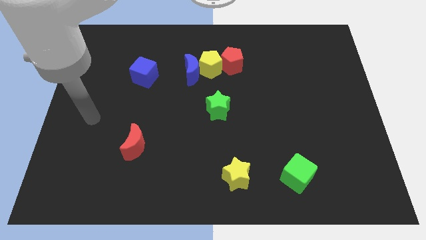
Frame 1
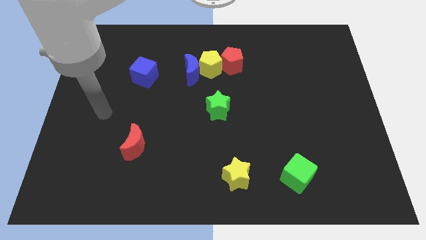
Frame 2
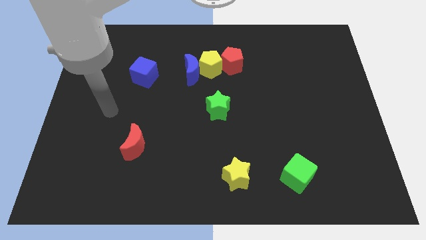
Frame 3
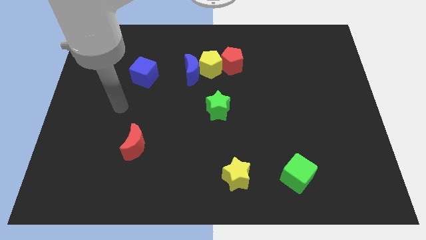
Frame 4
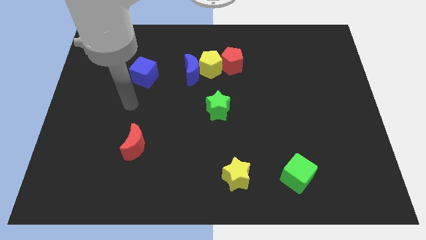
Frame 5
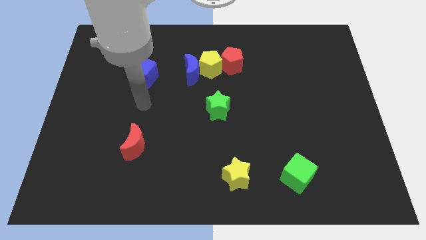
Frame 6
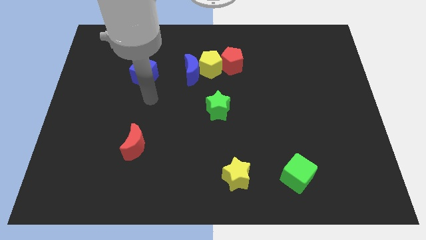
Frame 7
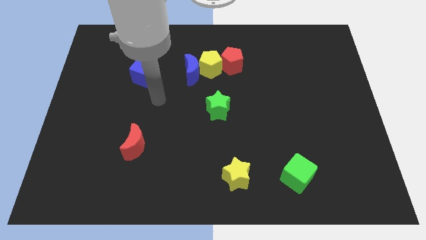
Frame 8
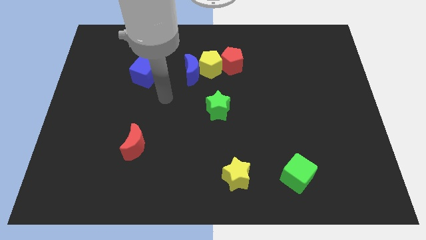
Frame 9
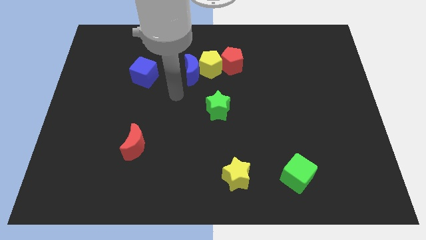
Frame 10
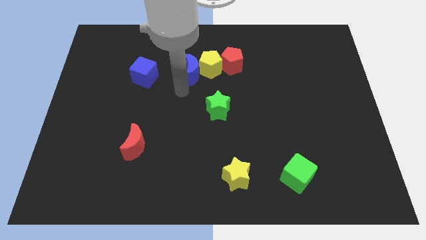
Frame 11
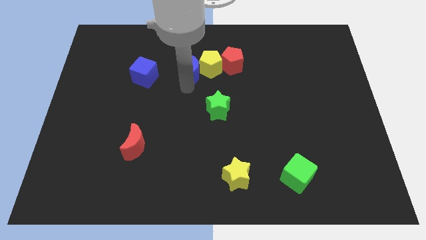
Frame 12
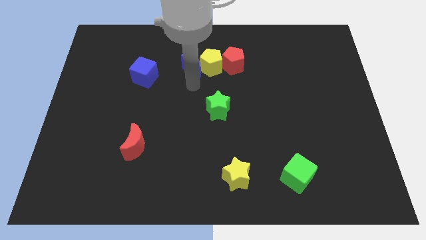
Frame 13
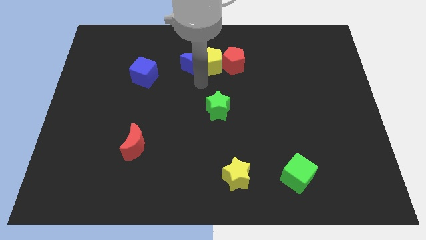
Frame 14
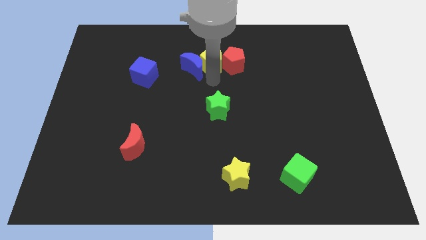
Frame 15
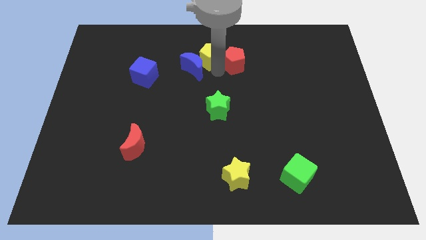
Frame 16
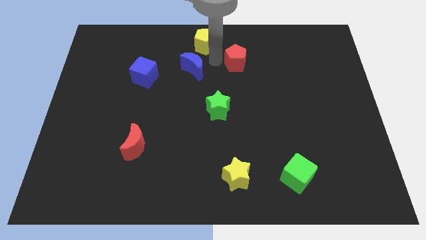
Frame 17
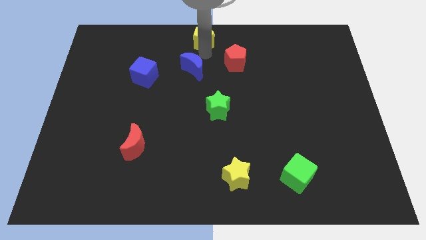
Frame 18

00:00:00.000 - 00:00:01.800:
move the blue moon away from the yellow pentagon

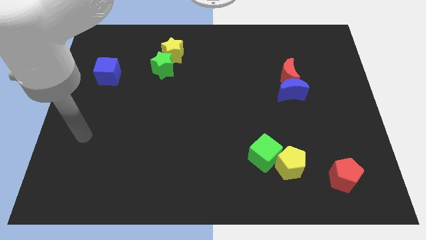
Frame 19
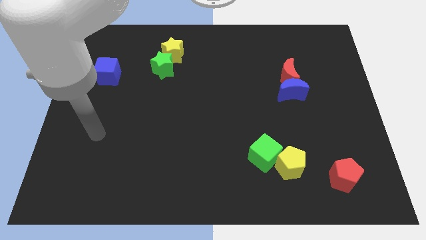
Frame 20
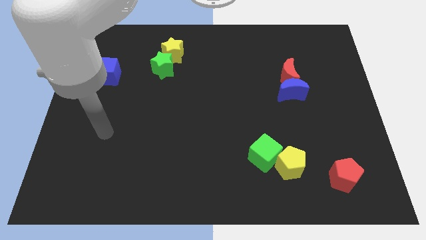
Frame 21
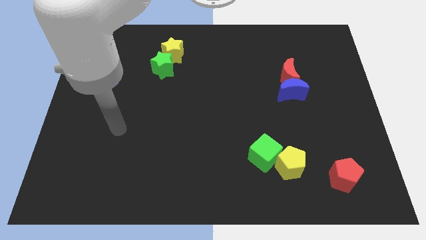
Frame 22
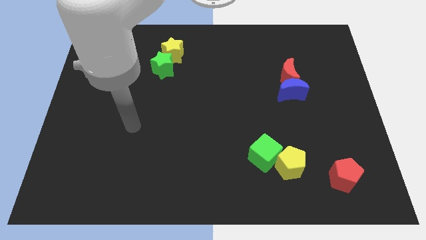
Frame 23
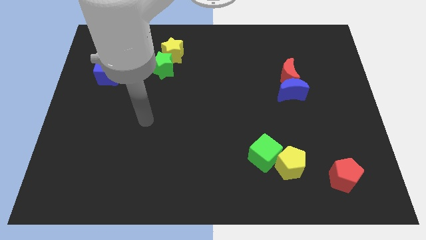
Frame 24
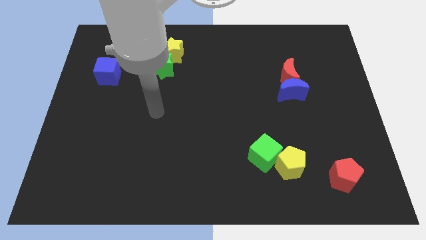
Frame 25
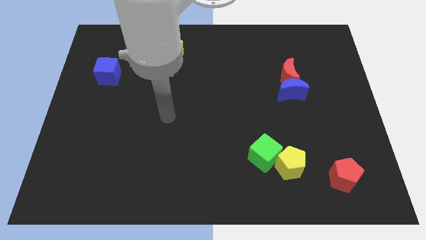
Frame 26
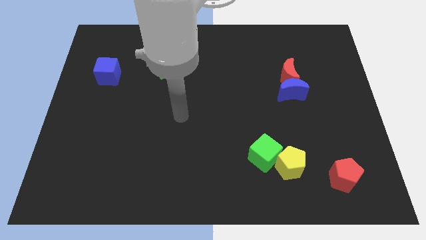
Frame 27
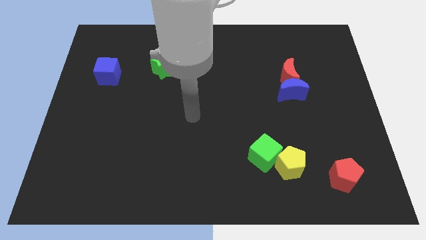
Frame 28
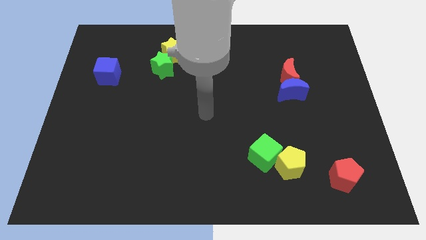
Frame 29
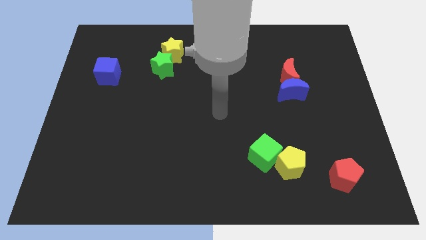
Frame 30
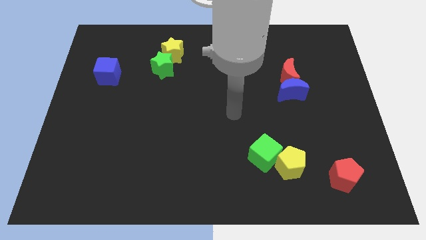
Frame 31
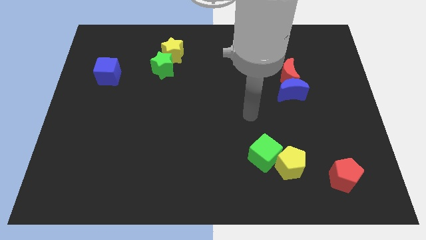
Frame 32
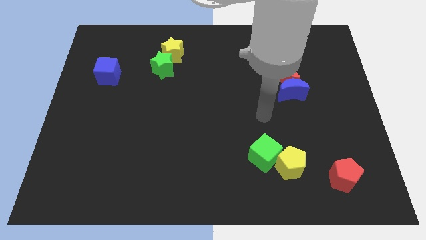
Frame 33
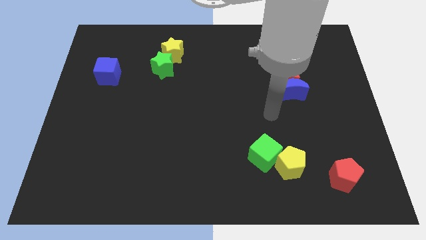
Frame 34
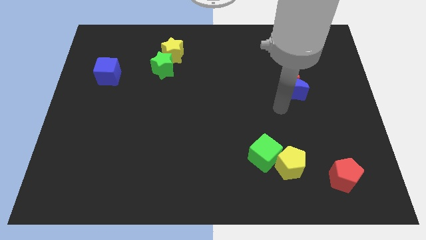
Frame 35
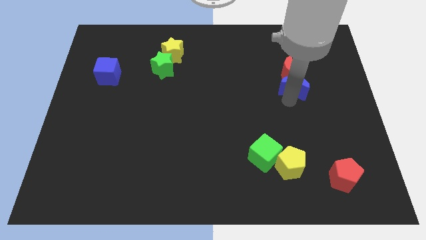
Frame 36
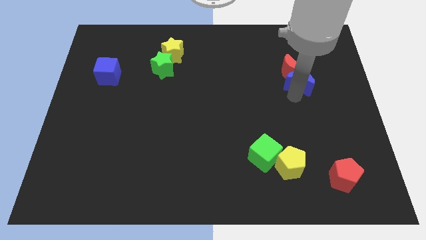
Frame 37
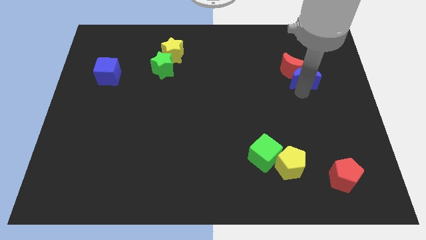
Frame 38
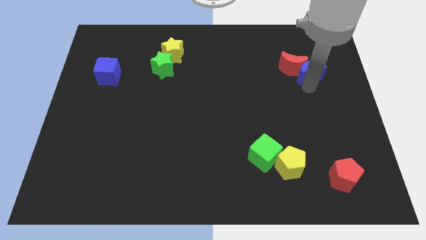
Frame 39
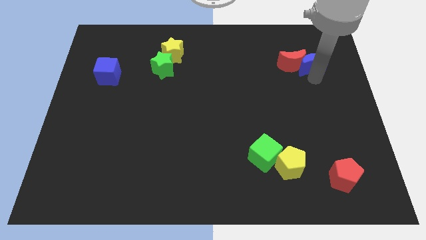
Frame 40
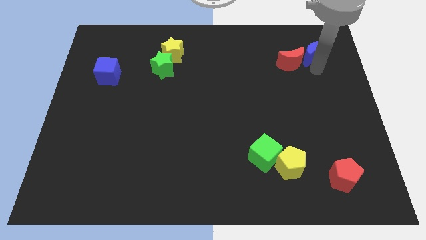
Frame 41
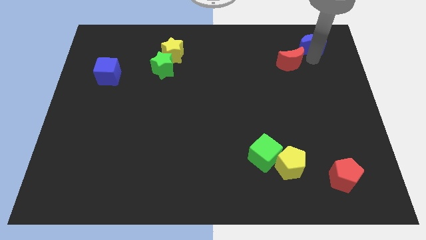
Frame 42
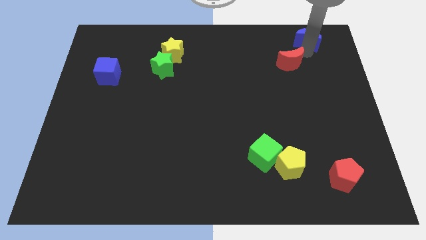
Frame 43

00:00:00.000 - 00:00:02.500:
separate the red moon from the blue moon

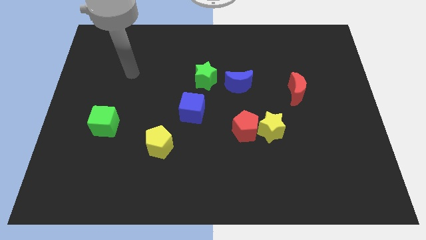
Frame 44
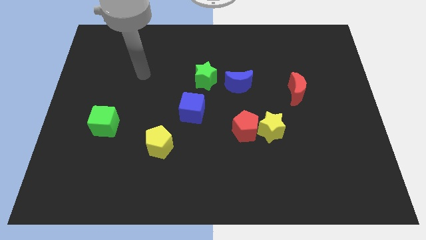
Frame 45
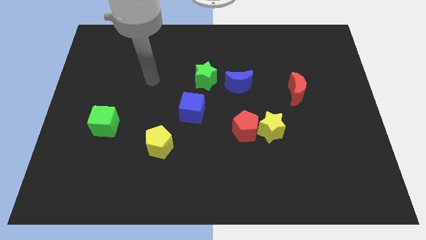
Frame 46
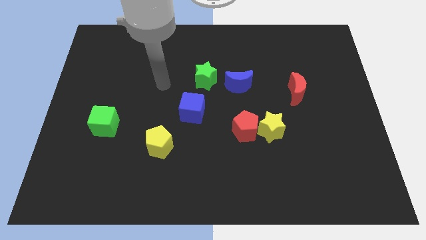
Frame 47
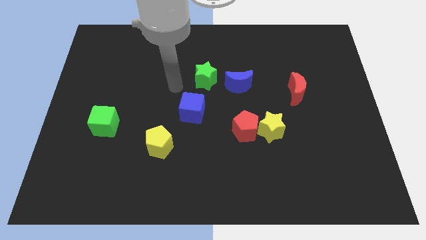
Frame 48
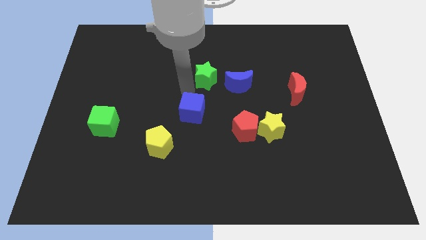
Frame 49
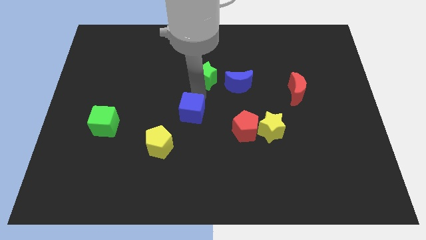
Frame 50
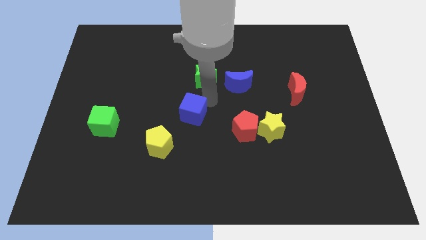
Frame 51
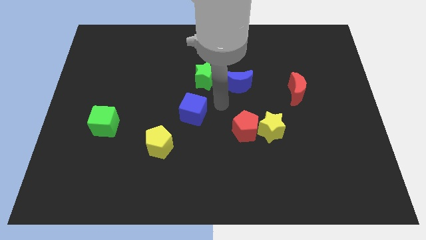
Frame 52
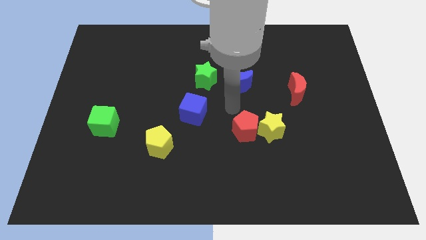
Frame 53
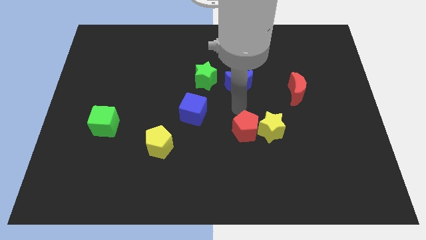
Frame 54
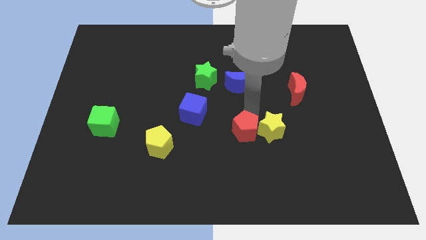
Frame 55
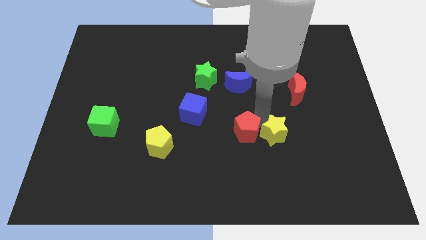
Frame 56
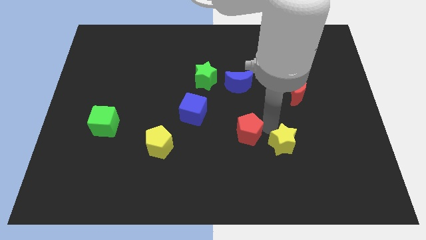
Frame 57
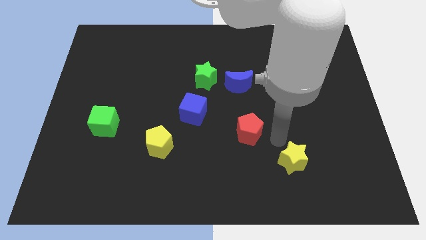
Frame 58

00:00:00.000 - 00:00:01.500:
move the red pentagon away from the yellow star

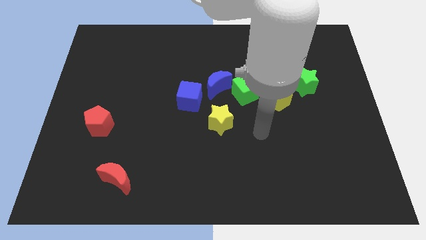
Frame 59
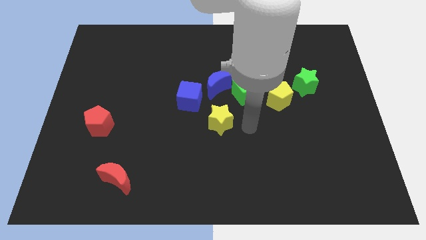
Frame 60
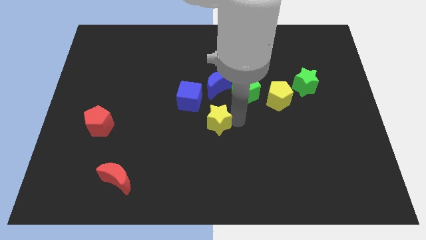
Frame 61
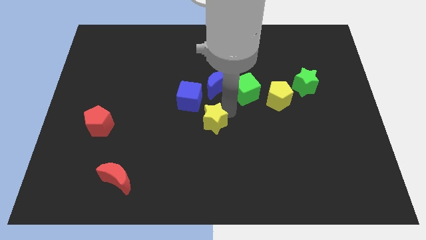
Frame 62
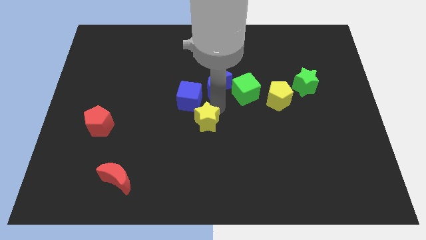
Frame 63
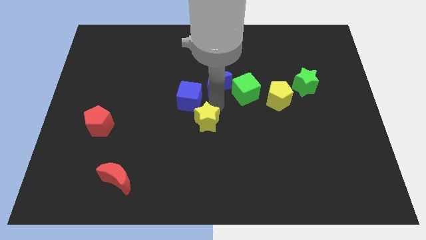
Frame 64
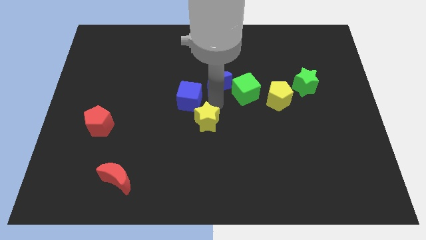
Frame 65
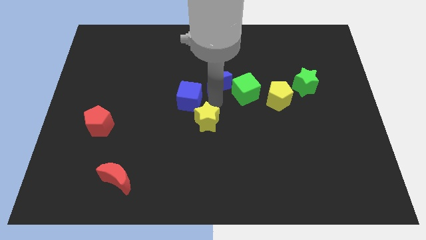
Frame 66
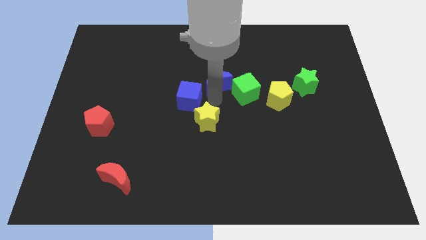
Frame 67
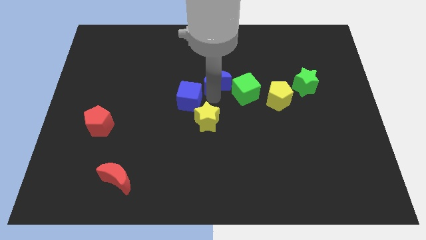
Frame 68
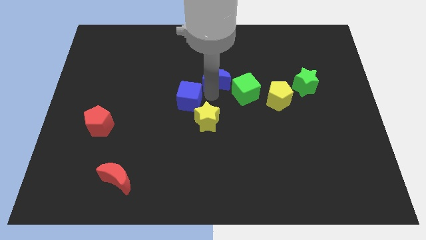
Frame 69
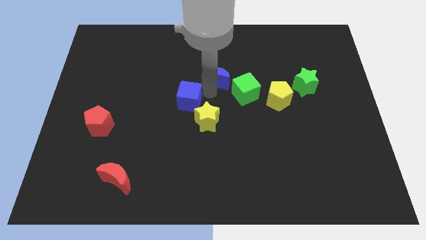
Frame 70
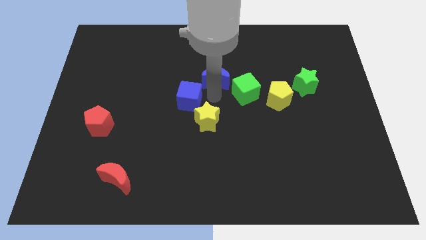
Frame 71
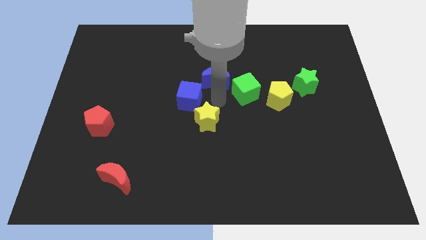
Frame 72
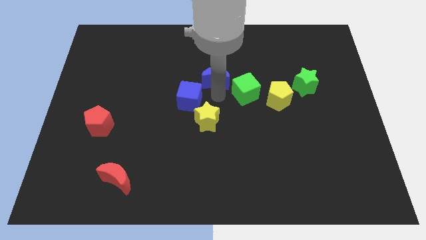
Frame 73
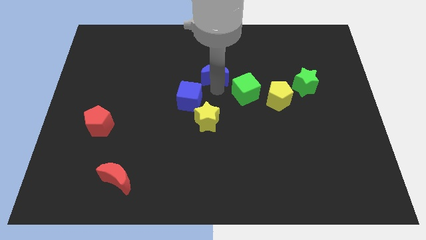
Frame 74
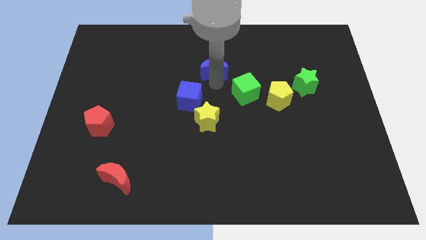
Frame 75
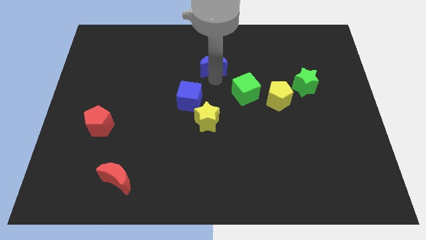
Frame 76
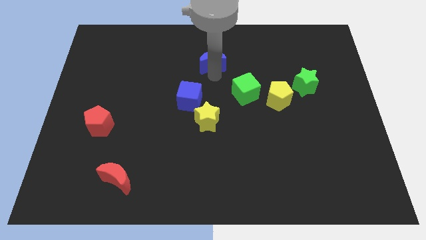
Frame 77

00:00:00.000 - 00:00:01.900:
move the blue moon away from the green cube and blue cube

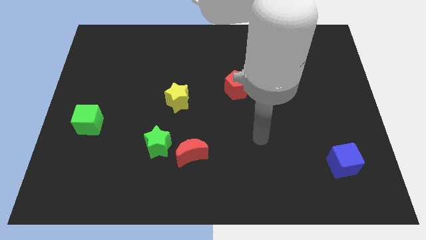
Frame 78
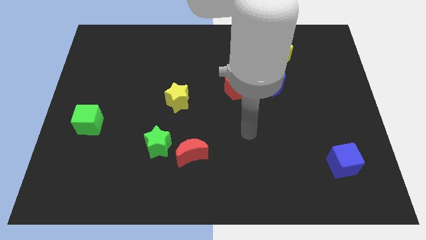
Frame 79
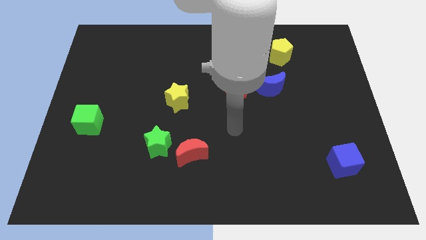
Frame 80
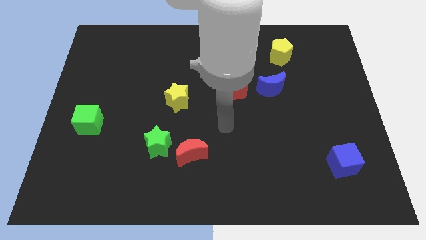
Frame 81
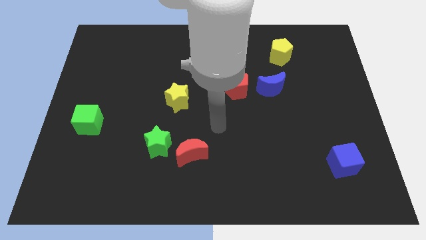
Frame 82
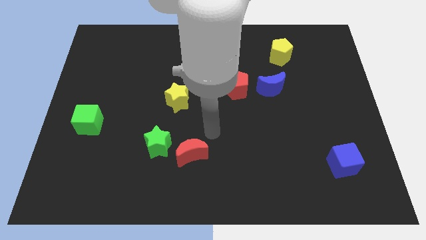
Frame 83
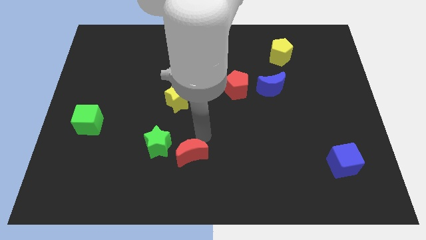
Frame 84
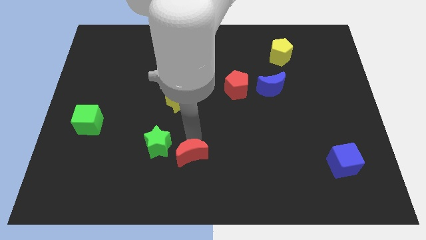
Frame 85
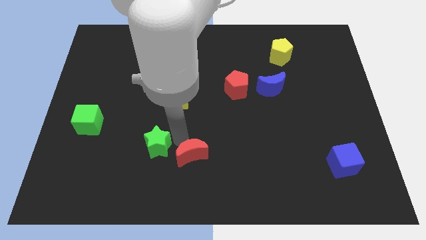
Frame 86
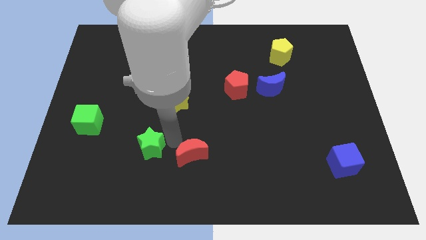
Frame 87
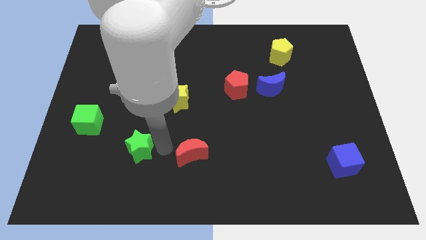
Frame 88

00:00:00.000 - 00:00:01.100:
pull the red moon apart from the green star

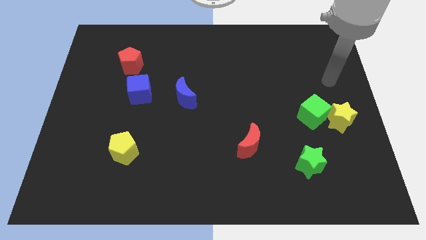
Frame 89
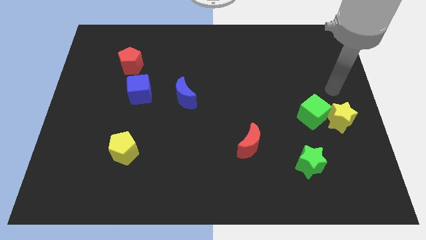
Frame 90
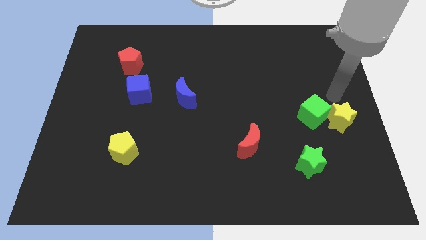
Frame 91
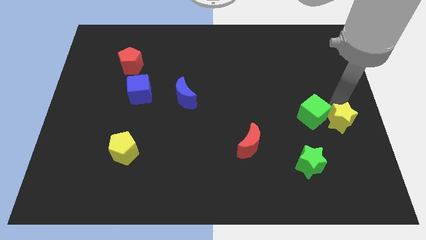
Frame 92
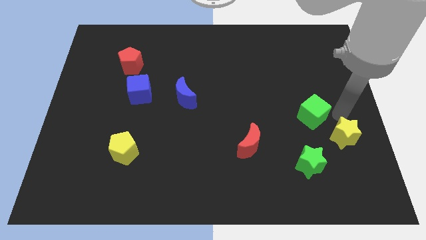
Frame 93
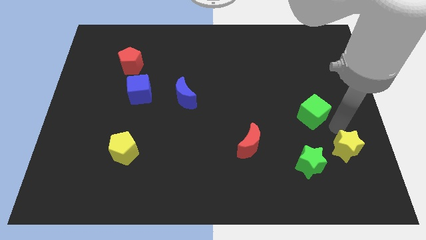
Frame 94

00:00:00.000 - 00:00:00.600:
pull the green cube apart from the yellow star
